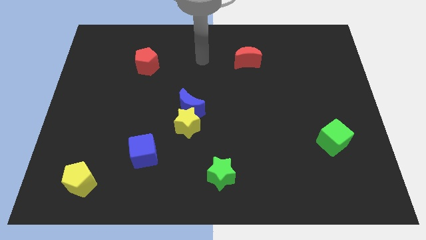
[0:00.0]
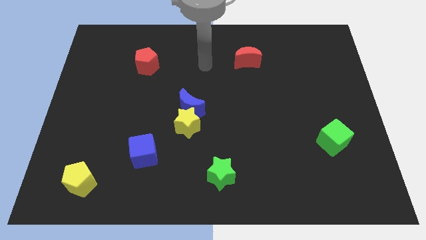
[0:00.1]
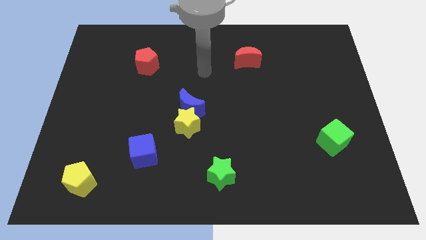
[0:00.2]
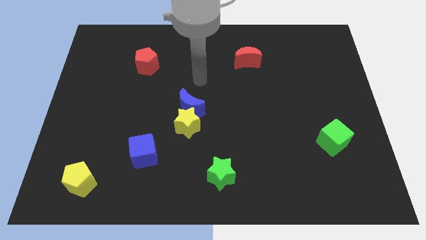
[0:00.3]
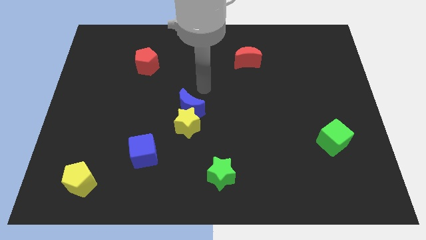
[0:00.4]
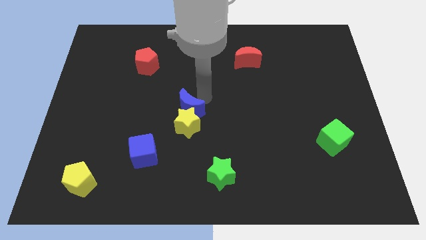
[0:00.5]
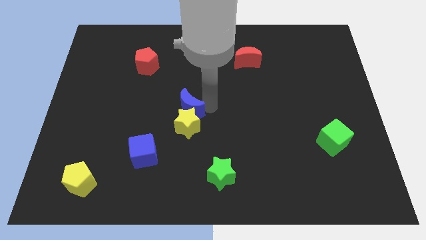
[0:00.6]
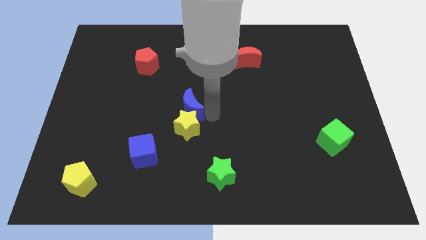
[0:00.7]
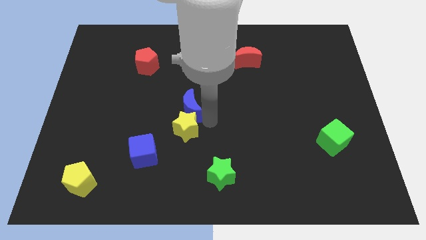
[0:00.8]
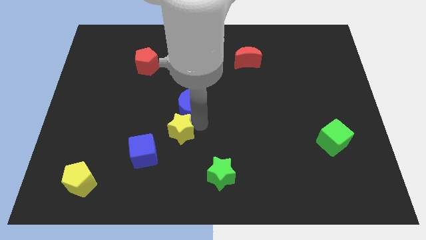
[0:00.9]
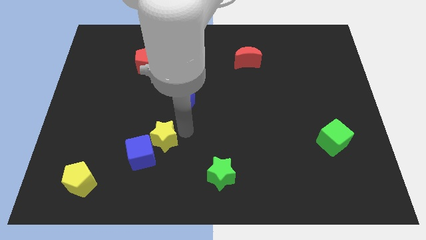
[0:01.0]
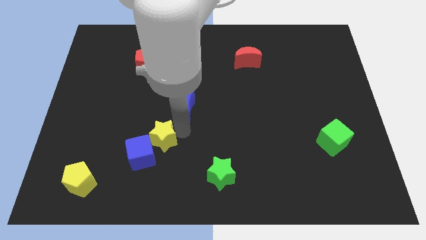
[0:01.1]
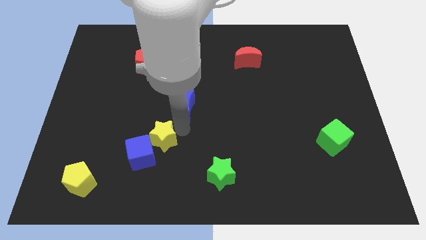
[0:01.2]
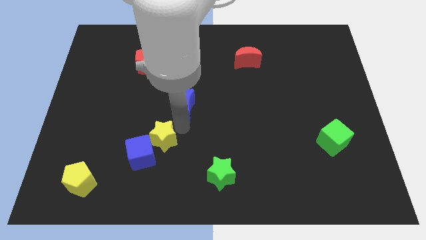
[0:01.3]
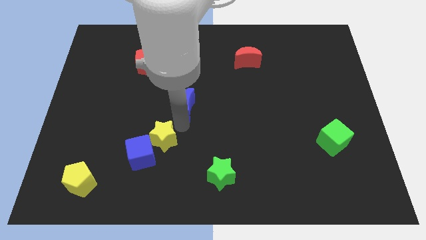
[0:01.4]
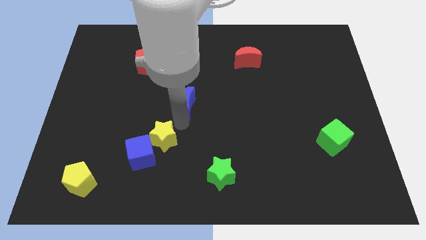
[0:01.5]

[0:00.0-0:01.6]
separate the blue moon from the yellow star

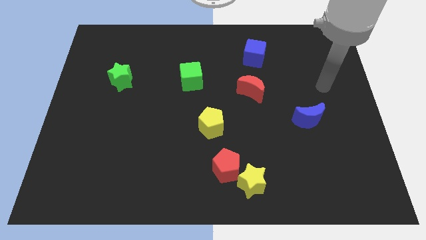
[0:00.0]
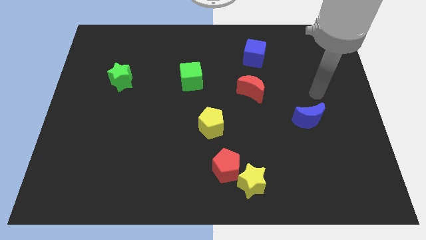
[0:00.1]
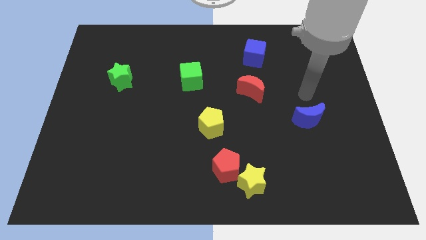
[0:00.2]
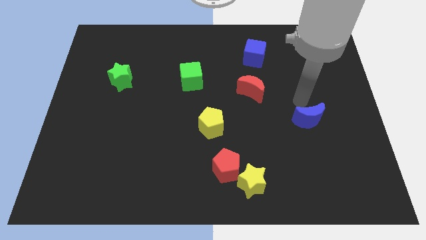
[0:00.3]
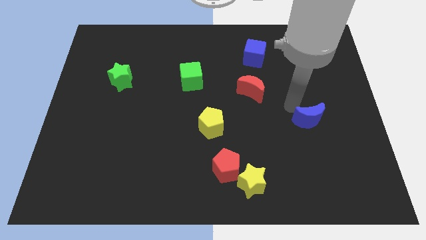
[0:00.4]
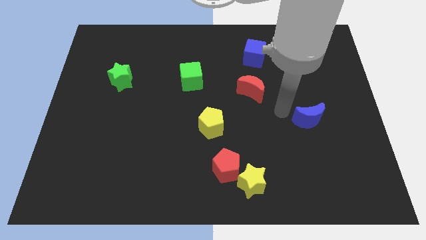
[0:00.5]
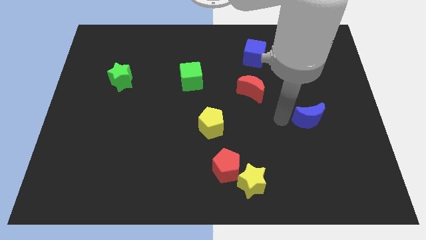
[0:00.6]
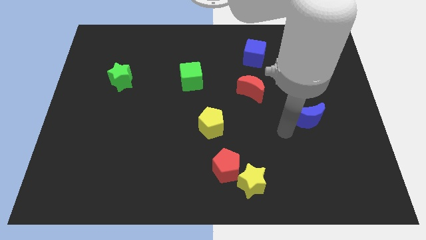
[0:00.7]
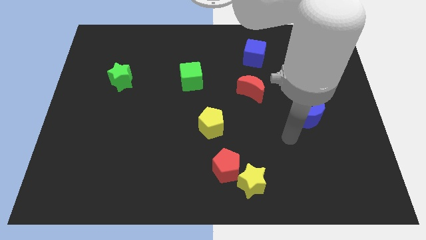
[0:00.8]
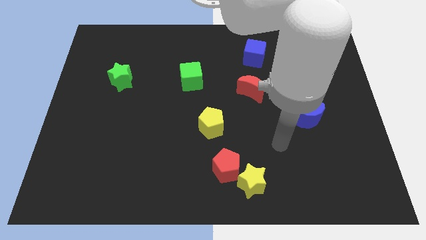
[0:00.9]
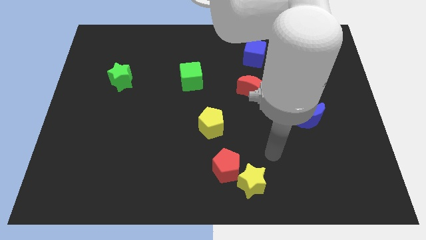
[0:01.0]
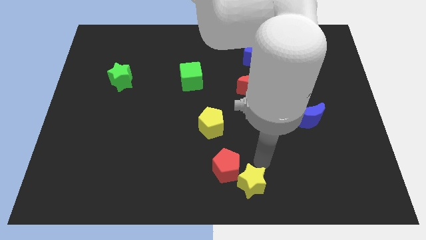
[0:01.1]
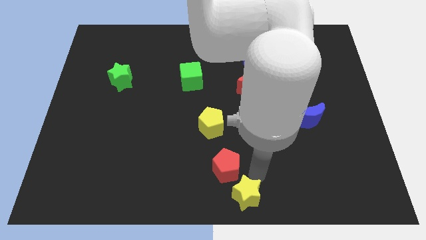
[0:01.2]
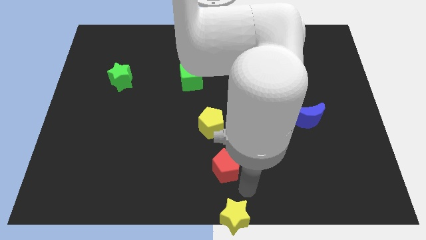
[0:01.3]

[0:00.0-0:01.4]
move the red pentagon away from the yellow star

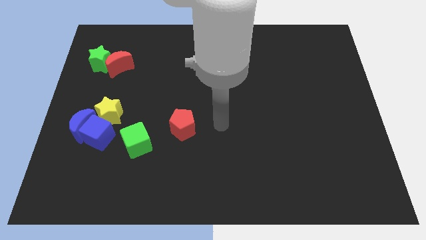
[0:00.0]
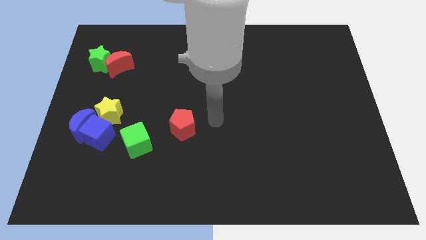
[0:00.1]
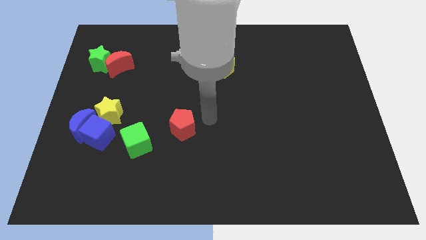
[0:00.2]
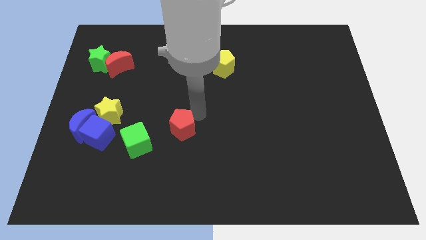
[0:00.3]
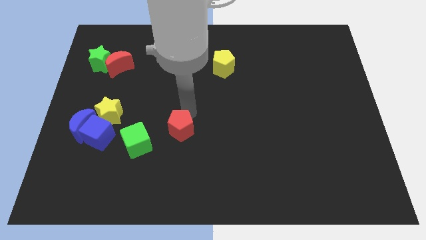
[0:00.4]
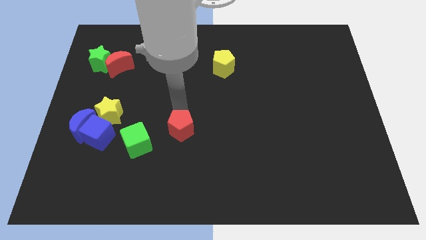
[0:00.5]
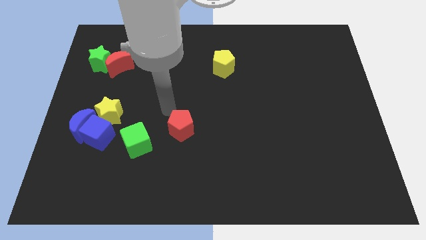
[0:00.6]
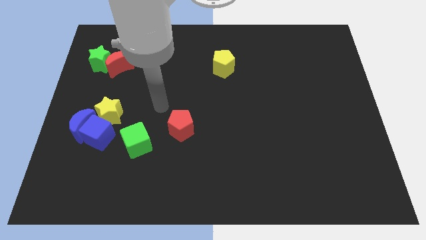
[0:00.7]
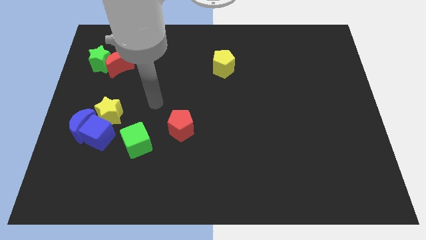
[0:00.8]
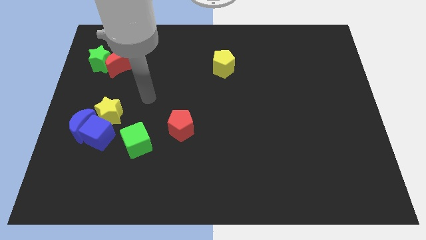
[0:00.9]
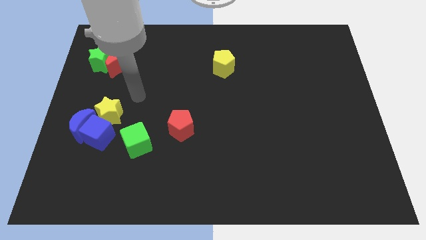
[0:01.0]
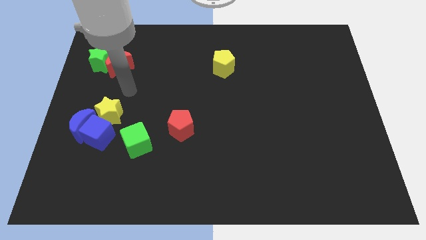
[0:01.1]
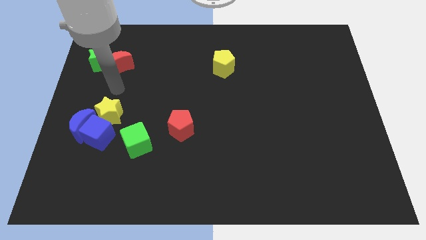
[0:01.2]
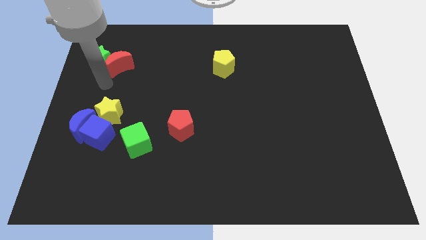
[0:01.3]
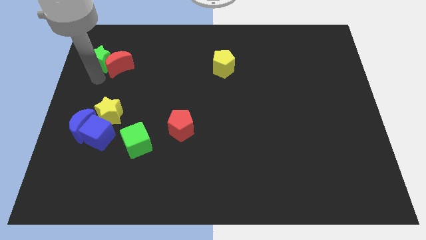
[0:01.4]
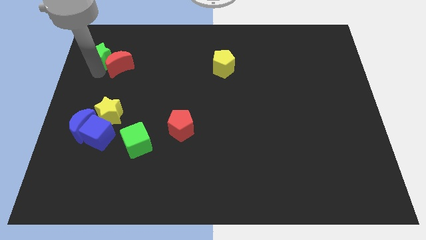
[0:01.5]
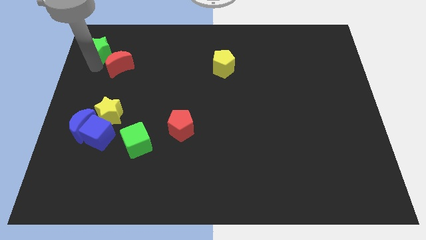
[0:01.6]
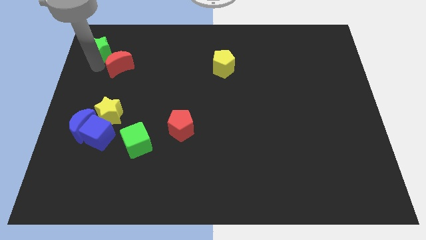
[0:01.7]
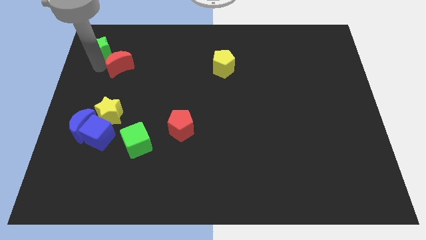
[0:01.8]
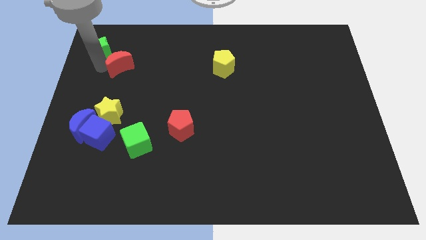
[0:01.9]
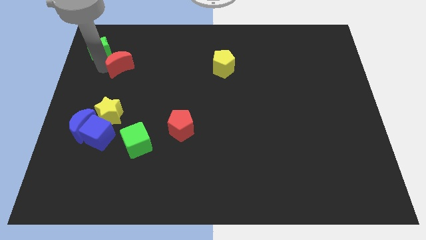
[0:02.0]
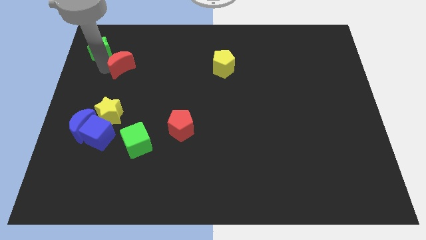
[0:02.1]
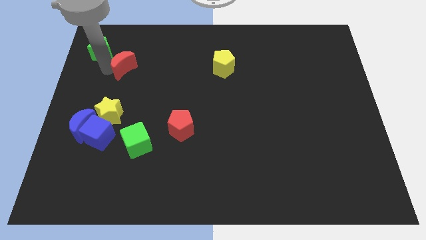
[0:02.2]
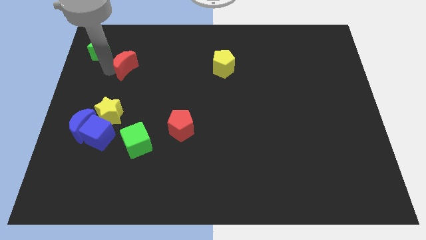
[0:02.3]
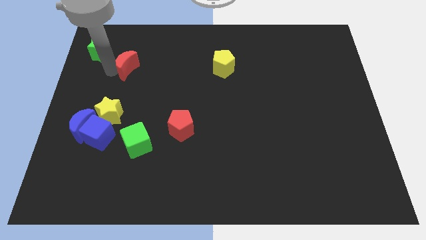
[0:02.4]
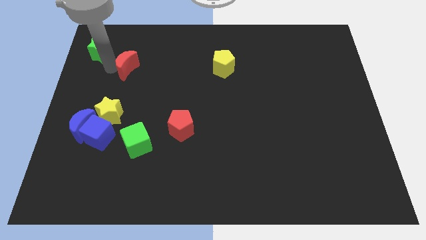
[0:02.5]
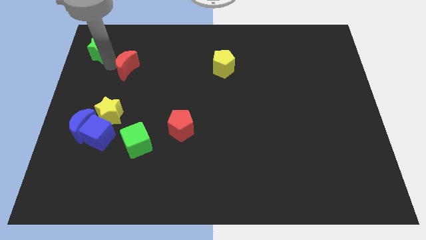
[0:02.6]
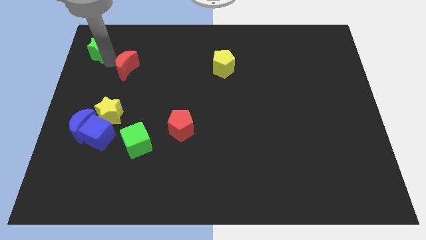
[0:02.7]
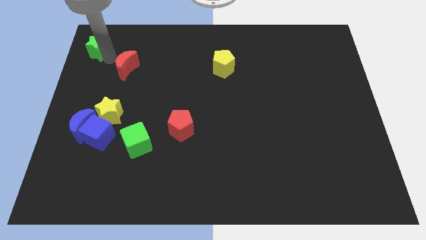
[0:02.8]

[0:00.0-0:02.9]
pull the red moon apart from the green star

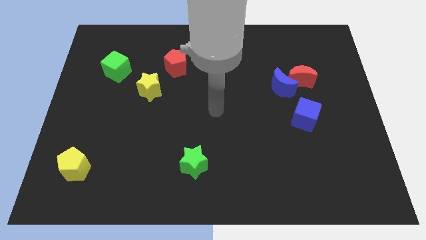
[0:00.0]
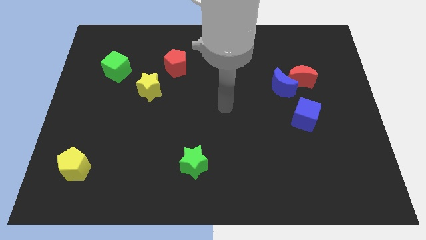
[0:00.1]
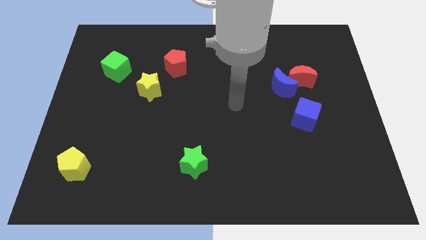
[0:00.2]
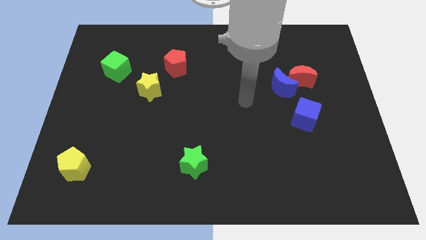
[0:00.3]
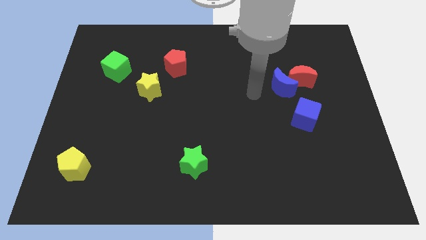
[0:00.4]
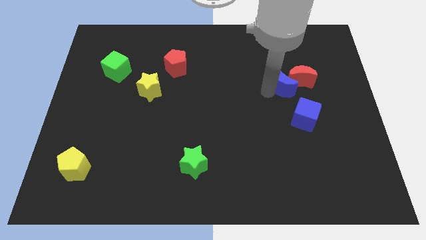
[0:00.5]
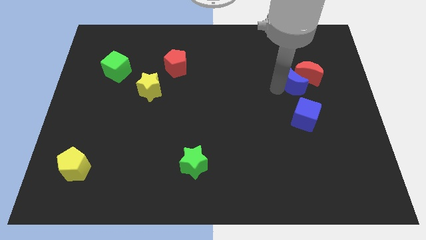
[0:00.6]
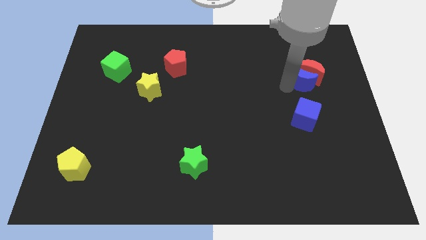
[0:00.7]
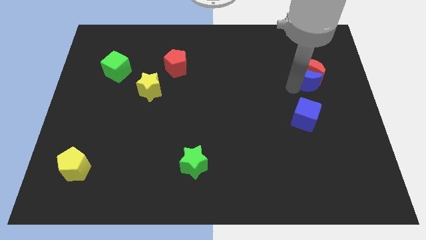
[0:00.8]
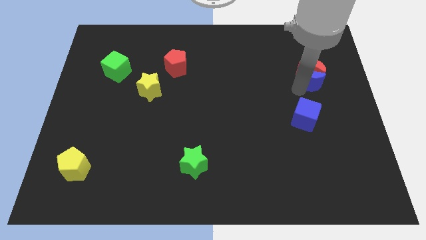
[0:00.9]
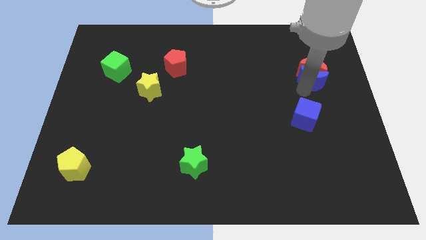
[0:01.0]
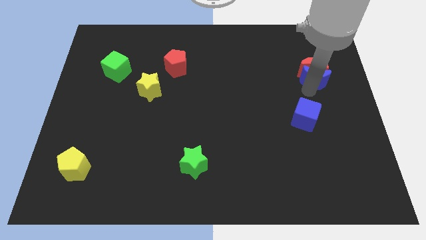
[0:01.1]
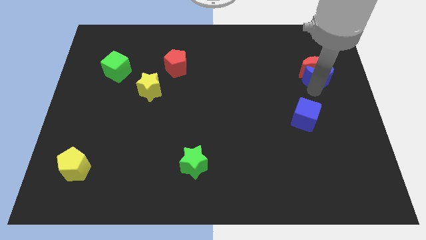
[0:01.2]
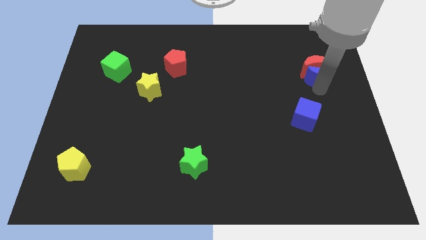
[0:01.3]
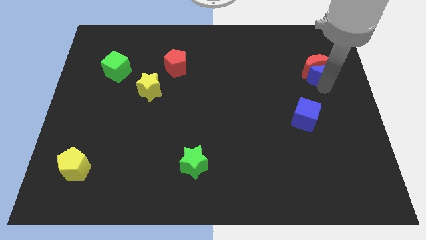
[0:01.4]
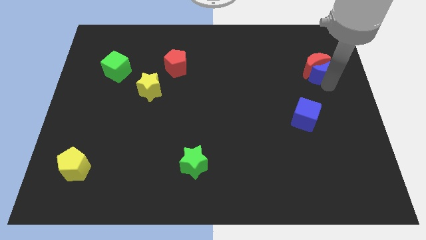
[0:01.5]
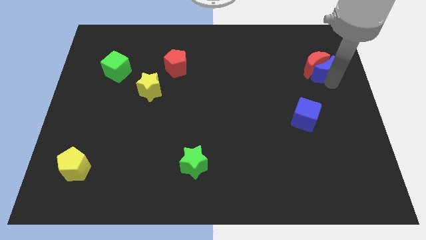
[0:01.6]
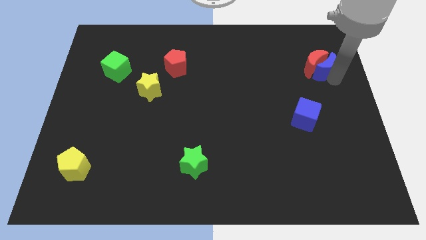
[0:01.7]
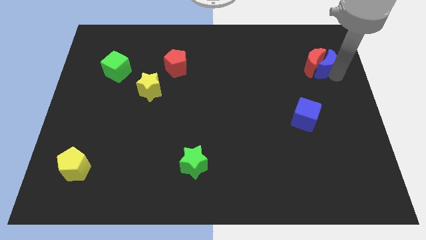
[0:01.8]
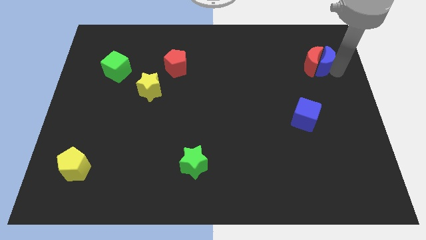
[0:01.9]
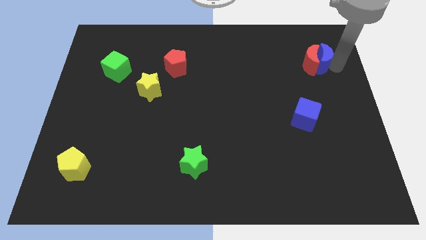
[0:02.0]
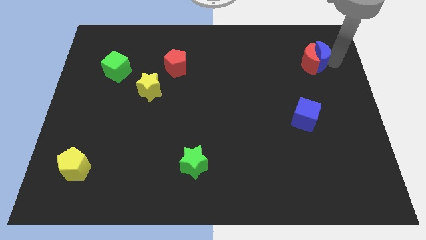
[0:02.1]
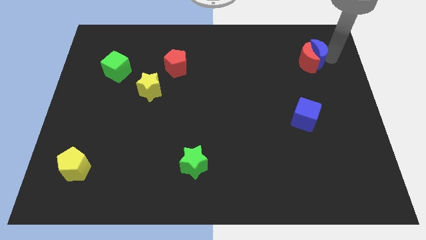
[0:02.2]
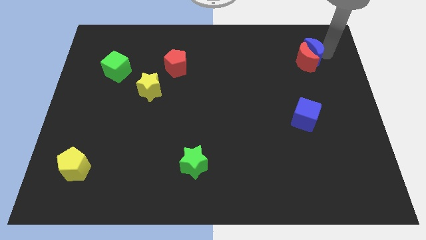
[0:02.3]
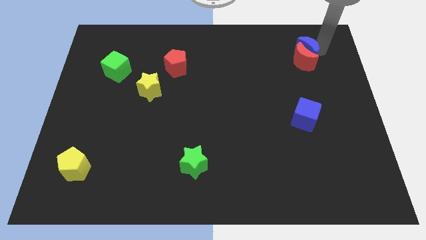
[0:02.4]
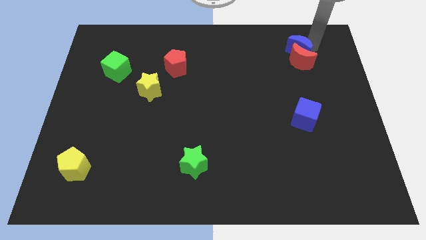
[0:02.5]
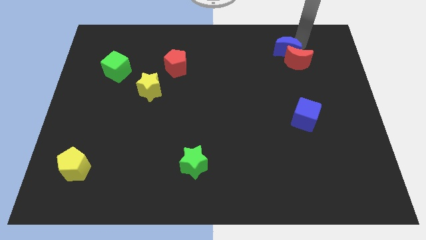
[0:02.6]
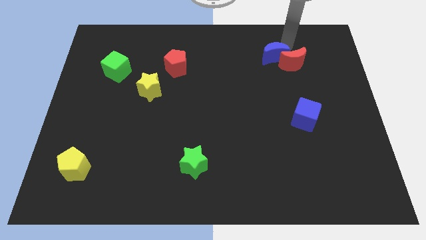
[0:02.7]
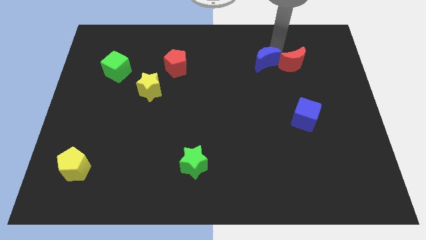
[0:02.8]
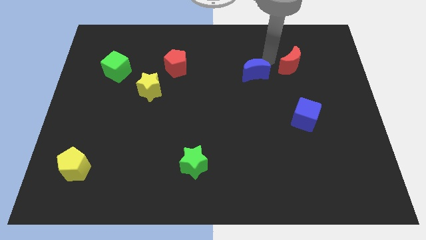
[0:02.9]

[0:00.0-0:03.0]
move the red moon away from the blue moon

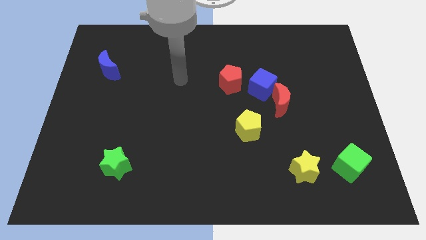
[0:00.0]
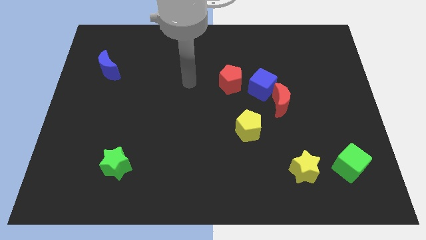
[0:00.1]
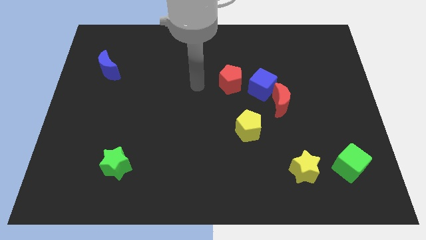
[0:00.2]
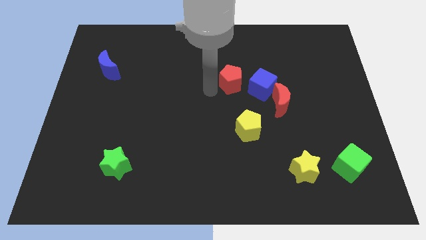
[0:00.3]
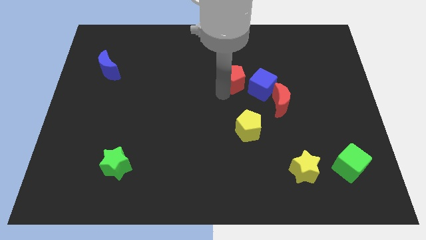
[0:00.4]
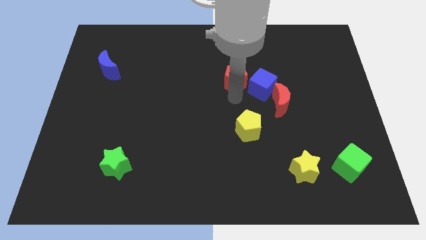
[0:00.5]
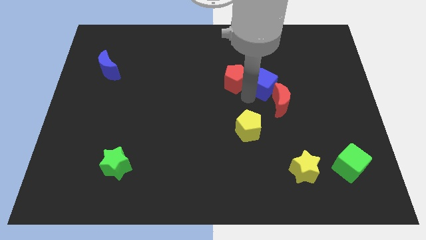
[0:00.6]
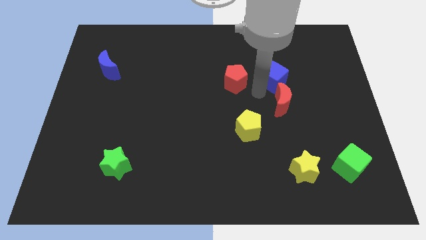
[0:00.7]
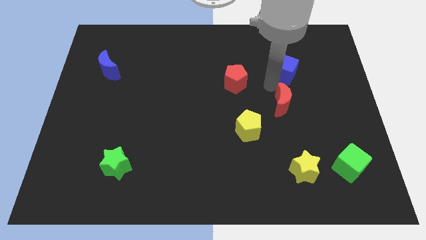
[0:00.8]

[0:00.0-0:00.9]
separate the red moon from the blue cube
